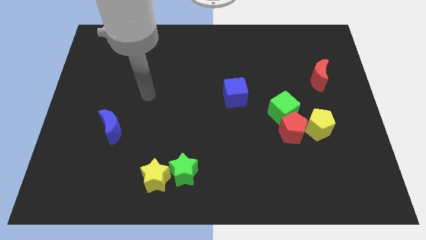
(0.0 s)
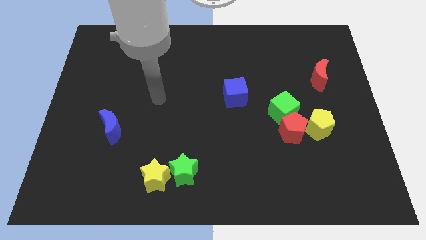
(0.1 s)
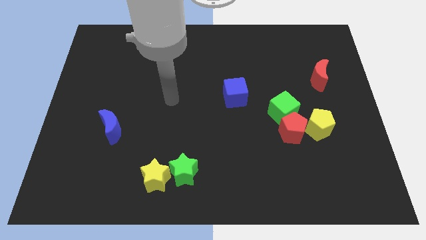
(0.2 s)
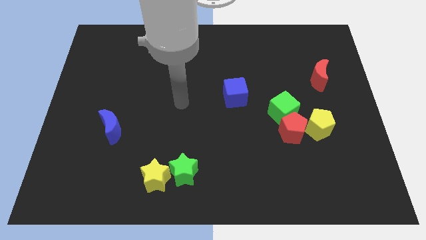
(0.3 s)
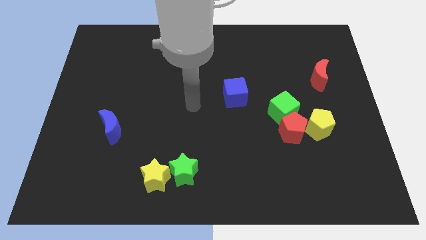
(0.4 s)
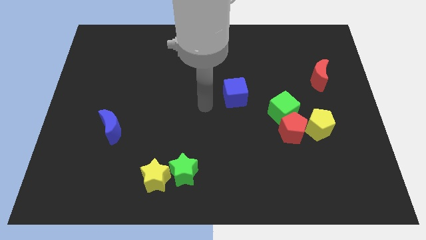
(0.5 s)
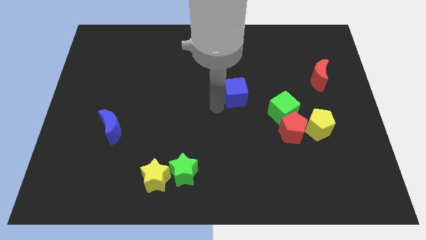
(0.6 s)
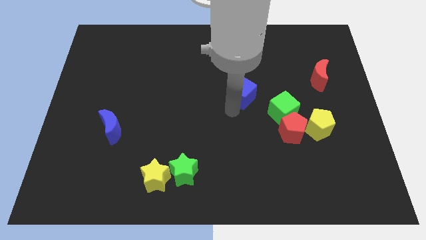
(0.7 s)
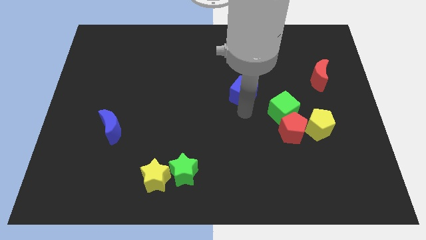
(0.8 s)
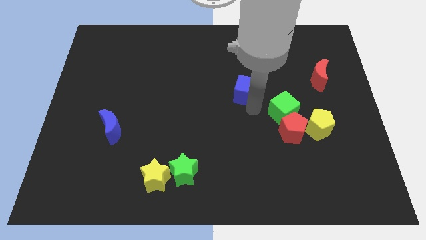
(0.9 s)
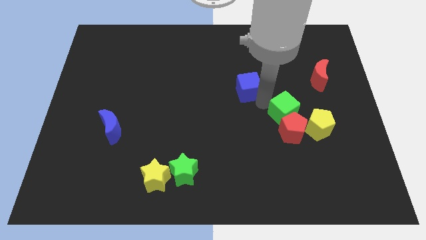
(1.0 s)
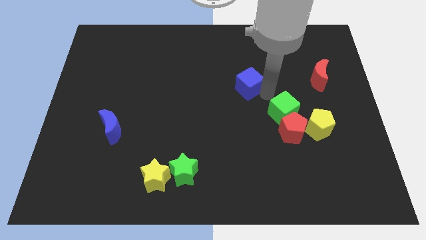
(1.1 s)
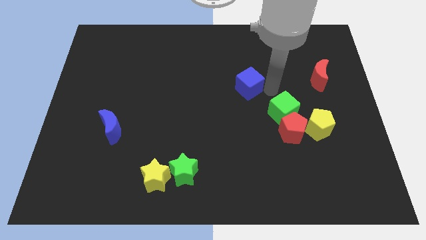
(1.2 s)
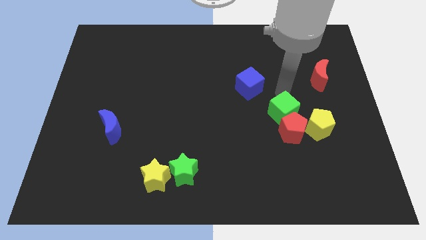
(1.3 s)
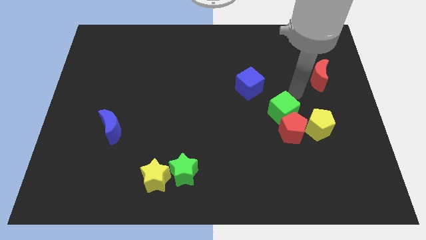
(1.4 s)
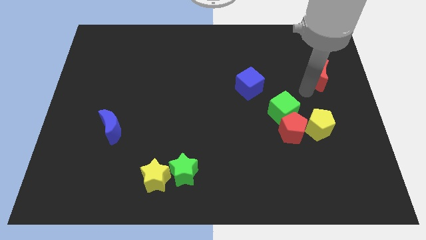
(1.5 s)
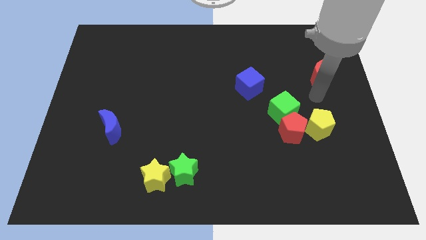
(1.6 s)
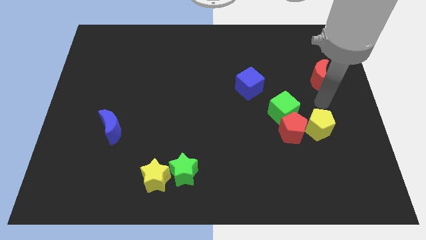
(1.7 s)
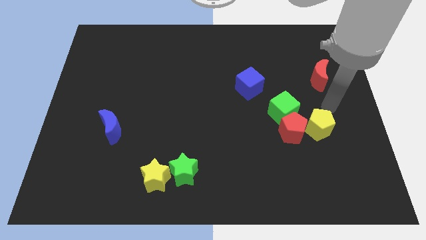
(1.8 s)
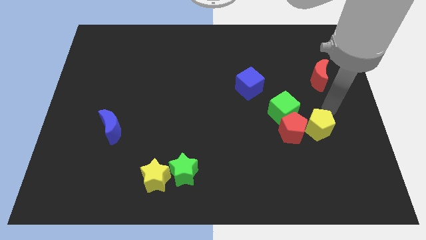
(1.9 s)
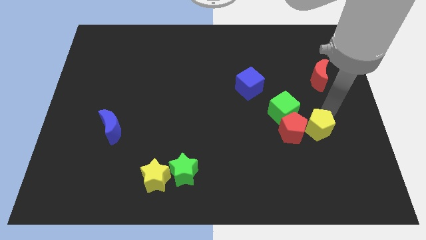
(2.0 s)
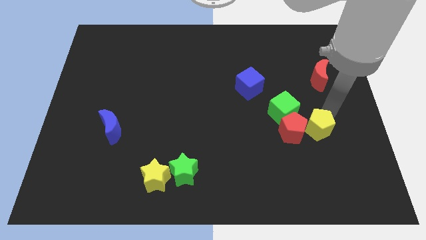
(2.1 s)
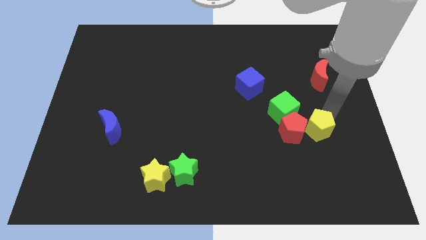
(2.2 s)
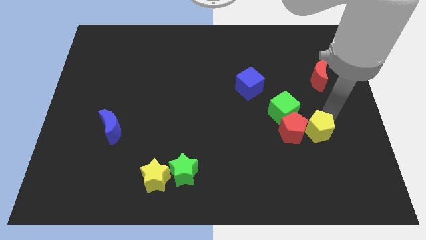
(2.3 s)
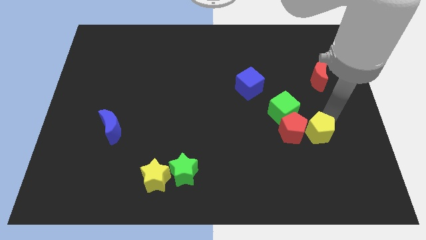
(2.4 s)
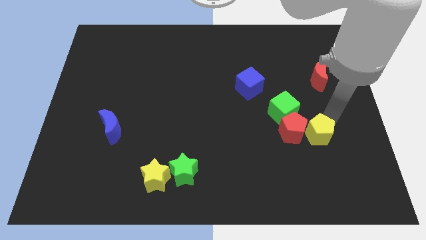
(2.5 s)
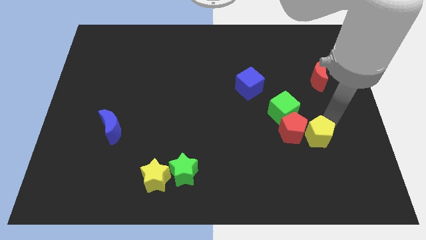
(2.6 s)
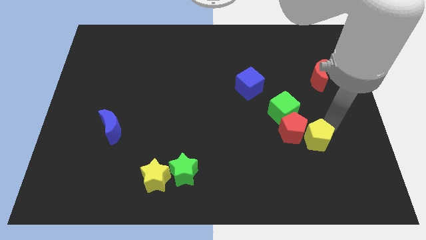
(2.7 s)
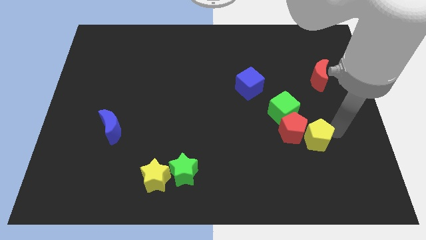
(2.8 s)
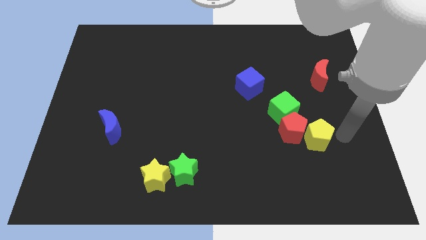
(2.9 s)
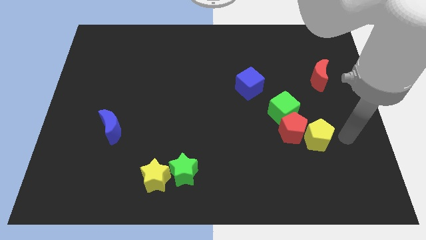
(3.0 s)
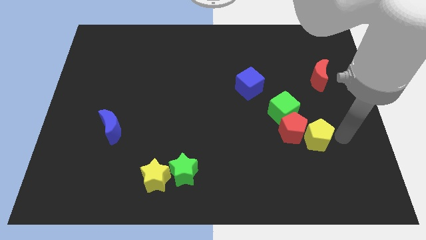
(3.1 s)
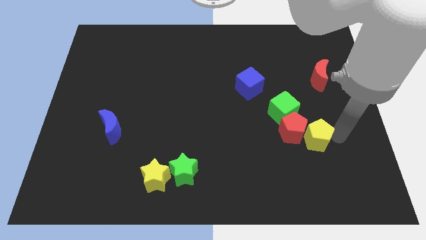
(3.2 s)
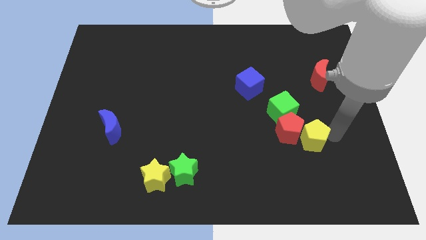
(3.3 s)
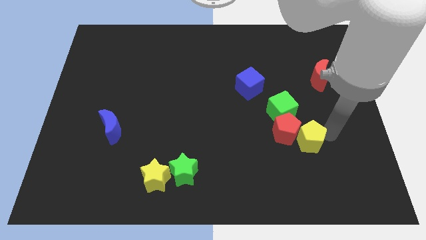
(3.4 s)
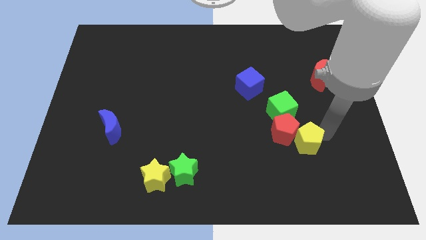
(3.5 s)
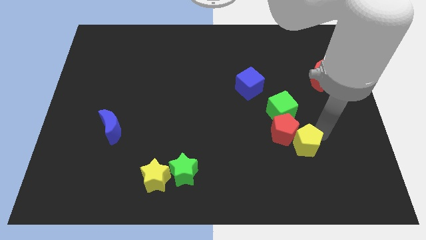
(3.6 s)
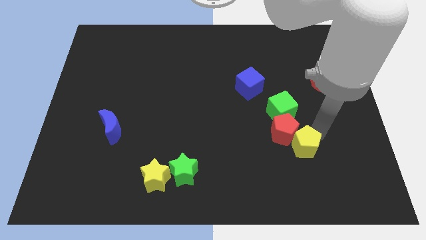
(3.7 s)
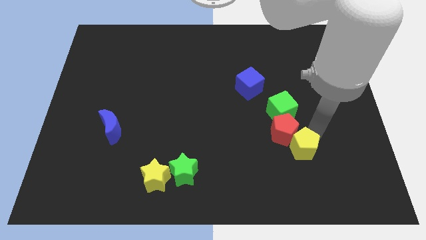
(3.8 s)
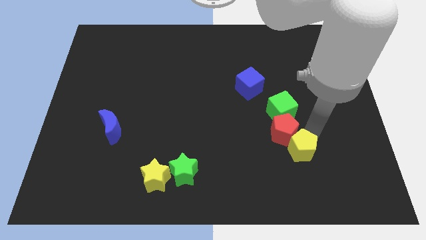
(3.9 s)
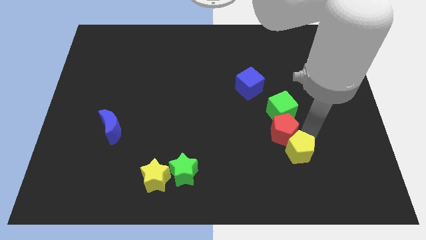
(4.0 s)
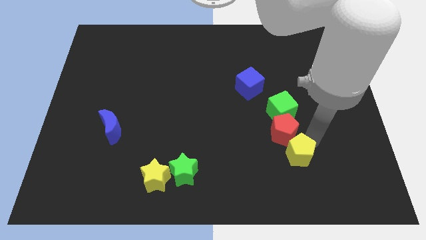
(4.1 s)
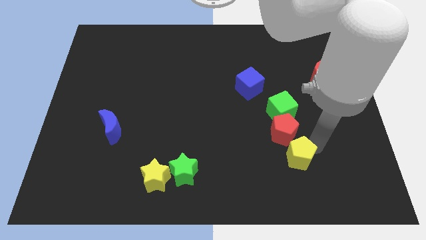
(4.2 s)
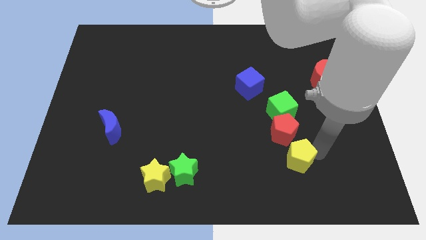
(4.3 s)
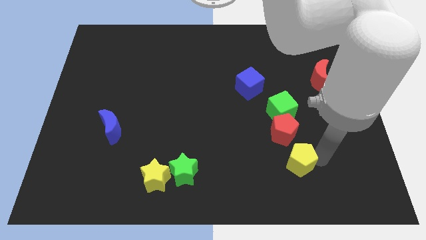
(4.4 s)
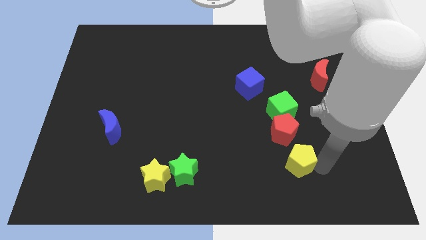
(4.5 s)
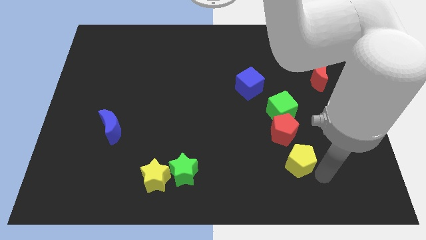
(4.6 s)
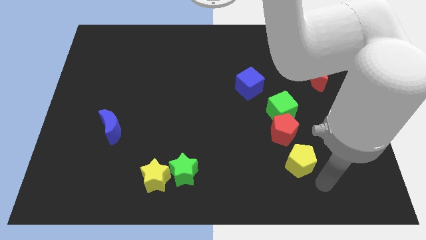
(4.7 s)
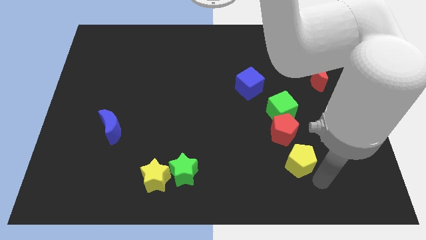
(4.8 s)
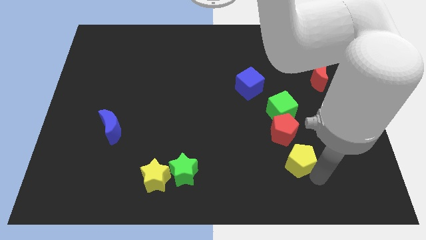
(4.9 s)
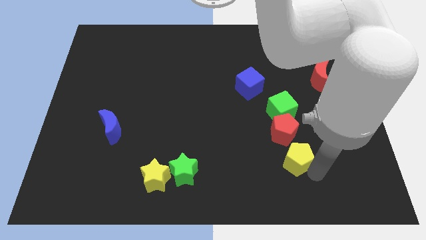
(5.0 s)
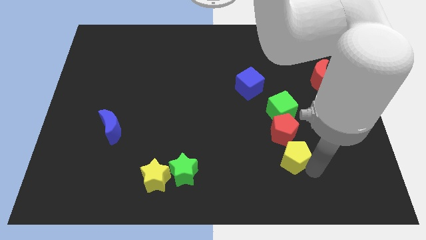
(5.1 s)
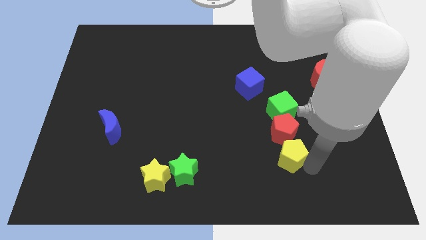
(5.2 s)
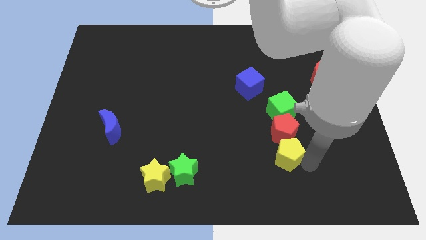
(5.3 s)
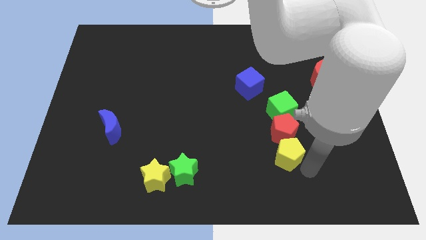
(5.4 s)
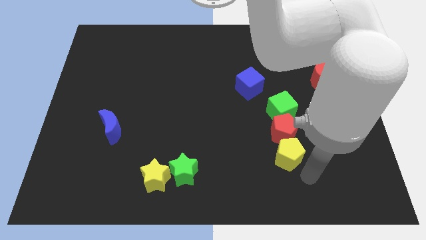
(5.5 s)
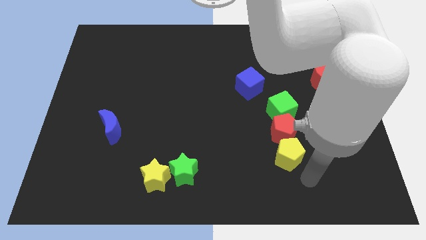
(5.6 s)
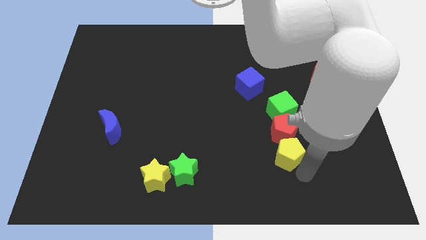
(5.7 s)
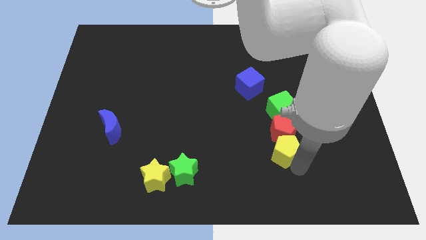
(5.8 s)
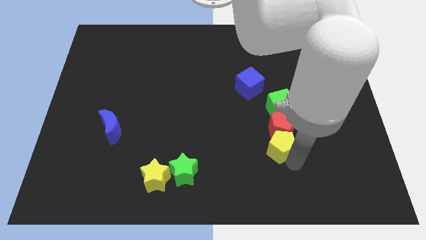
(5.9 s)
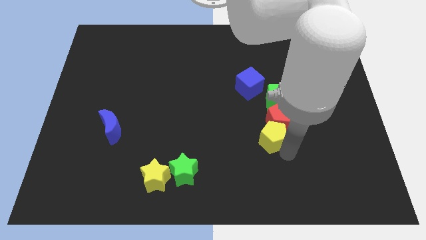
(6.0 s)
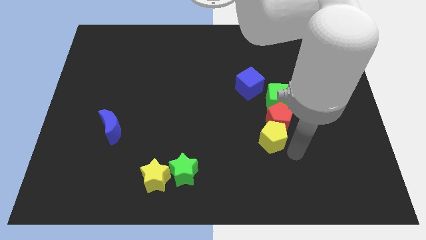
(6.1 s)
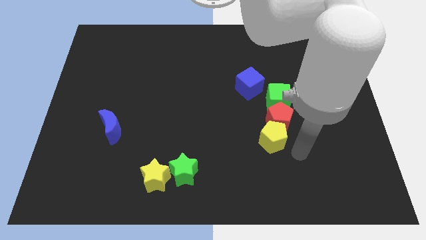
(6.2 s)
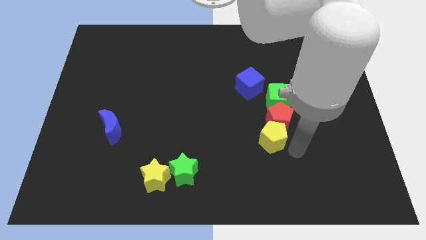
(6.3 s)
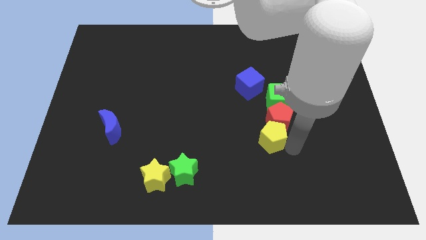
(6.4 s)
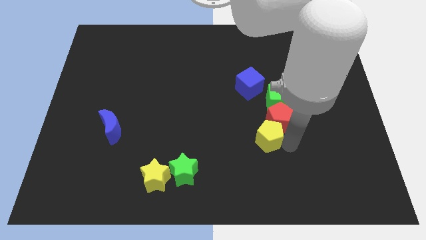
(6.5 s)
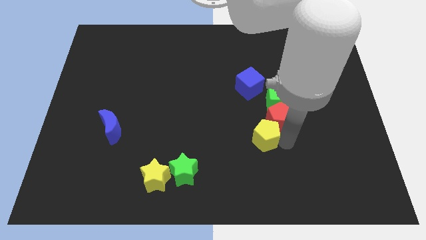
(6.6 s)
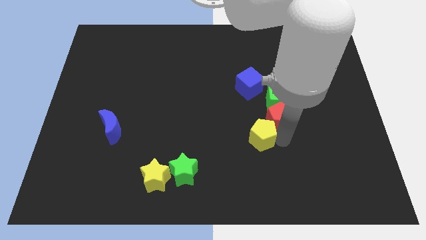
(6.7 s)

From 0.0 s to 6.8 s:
slide the yellow pentagon to the left side of the red pentagon

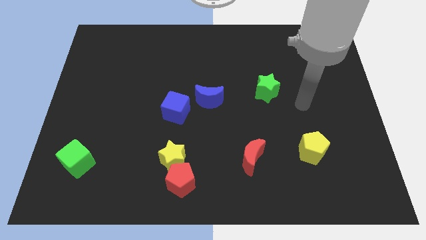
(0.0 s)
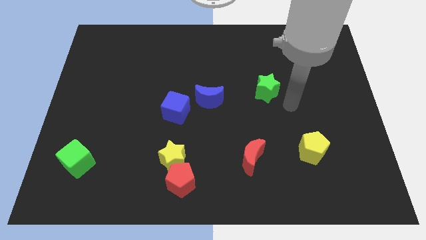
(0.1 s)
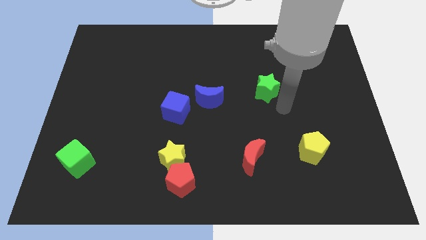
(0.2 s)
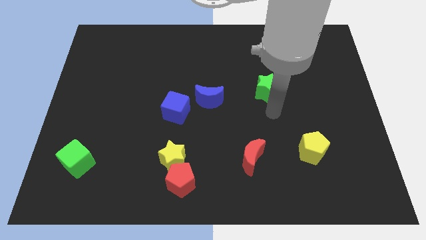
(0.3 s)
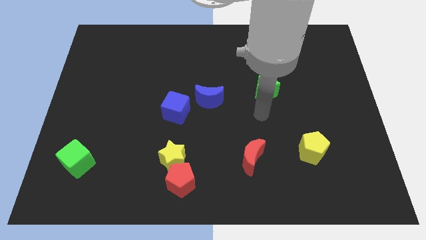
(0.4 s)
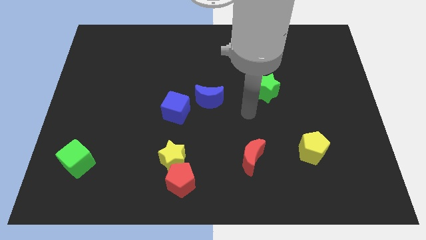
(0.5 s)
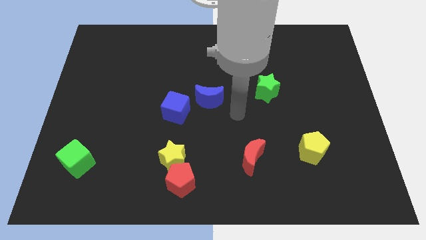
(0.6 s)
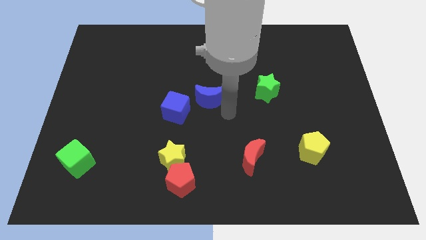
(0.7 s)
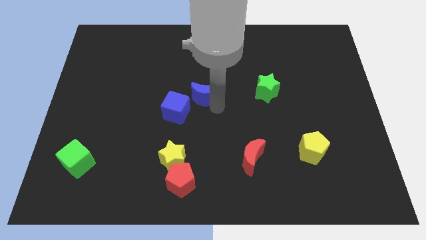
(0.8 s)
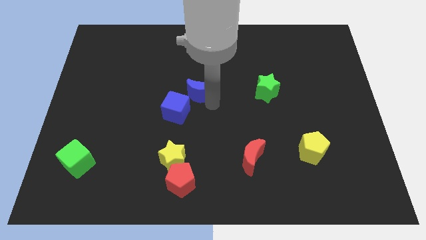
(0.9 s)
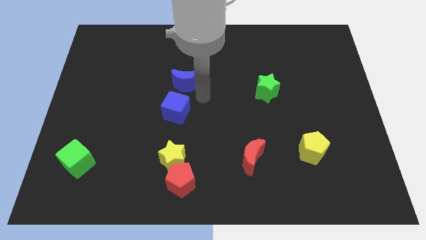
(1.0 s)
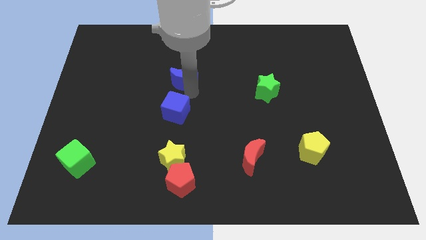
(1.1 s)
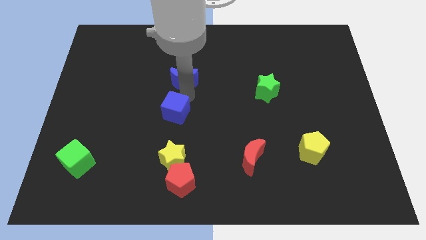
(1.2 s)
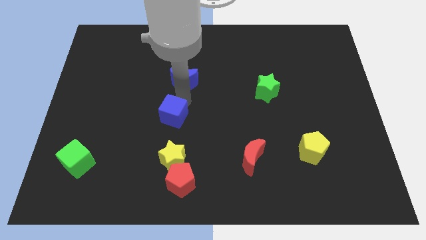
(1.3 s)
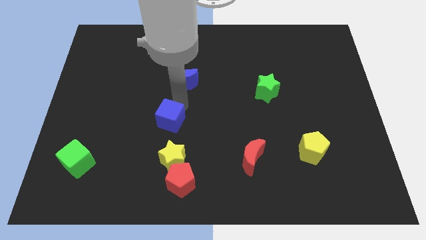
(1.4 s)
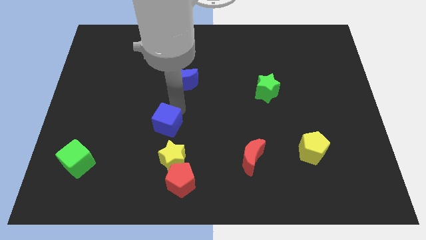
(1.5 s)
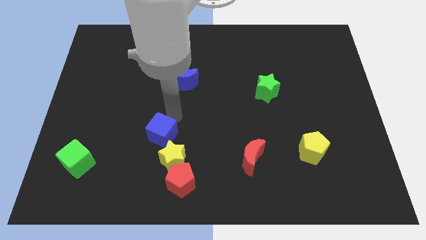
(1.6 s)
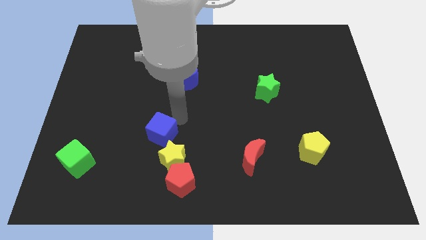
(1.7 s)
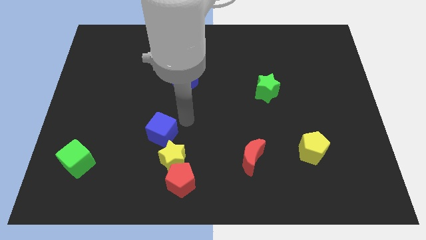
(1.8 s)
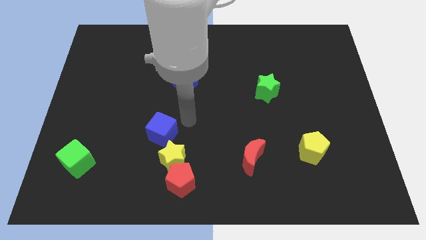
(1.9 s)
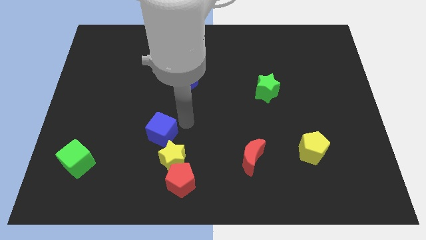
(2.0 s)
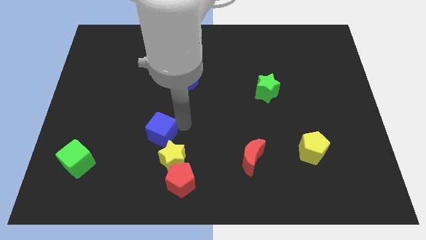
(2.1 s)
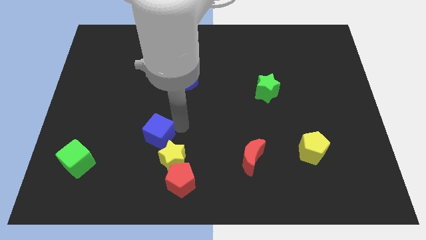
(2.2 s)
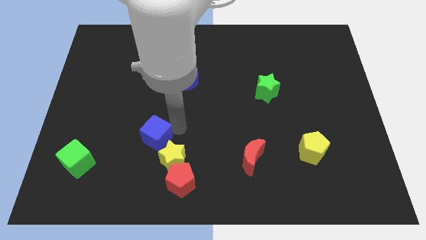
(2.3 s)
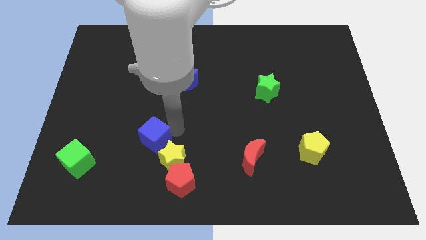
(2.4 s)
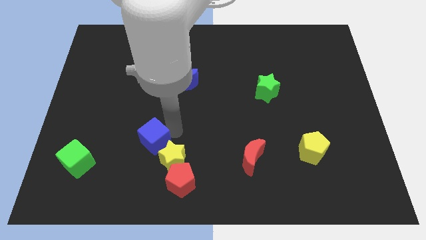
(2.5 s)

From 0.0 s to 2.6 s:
put the blue cube just left of the yellow star
